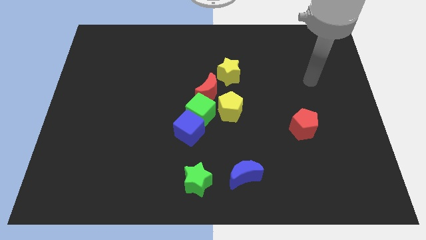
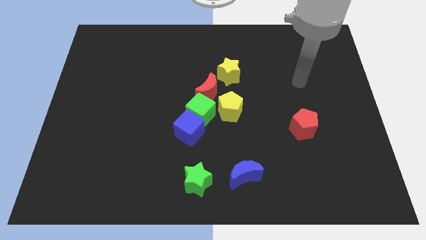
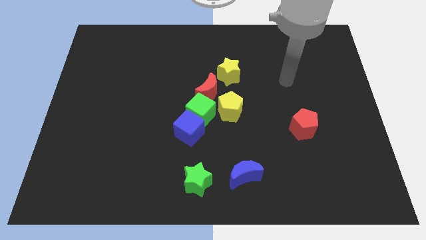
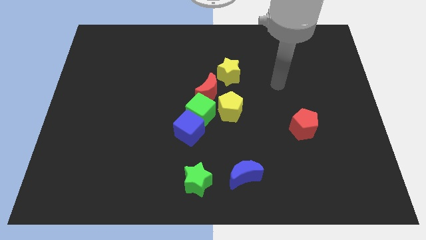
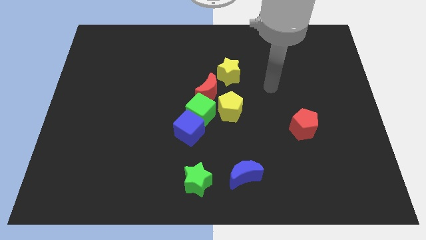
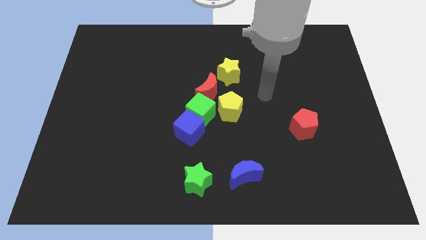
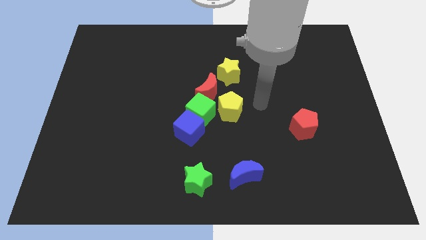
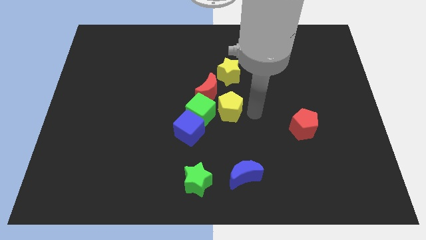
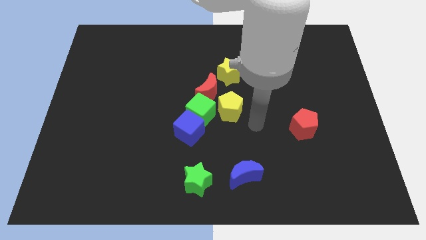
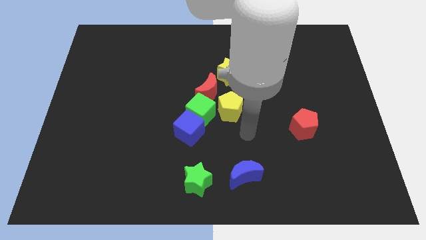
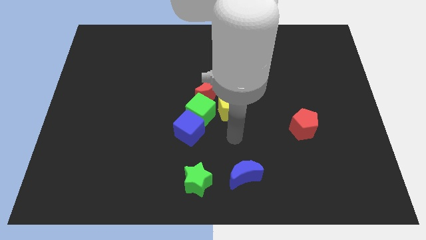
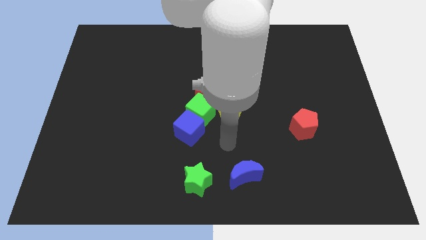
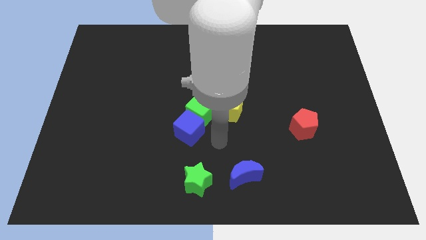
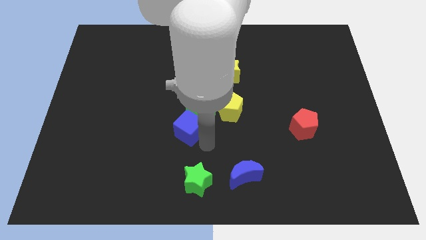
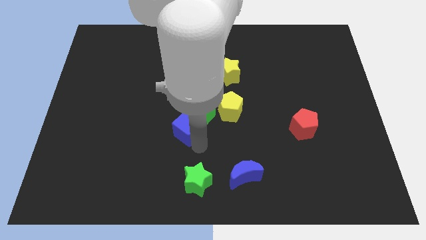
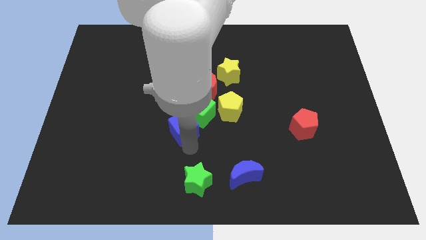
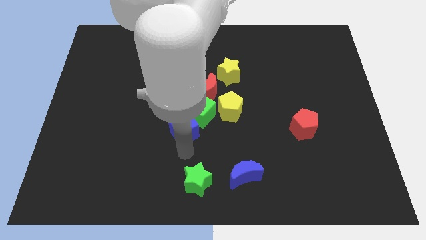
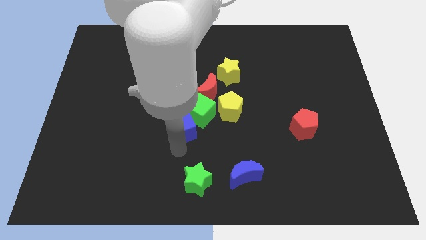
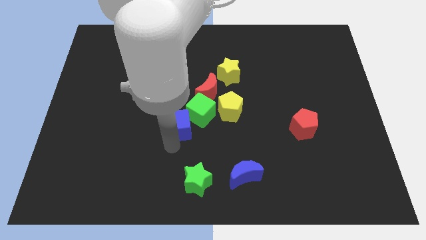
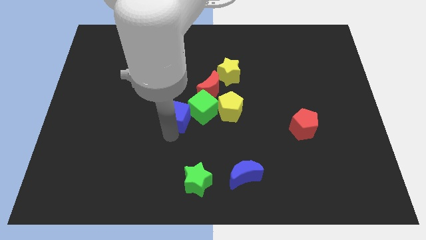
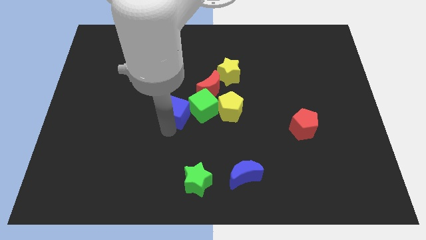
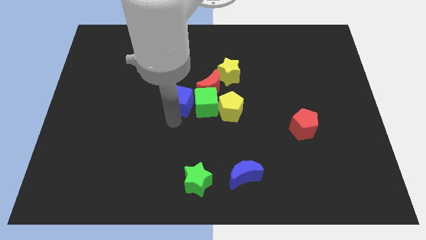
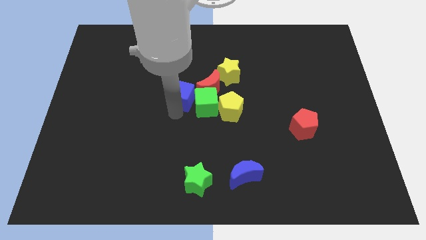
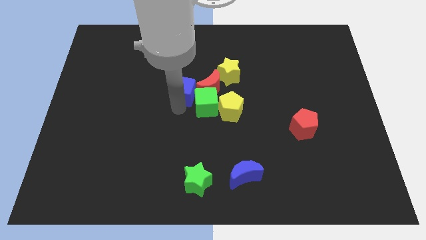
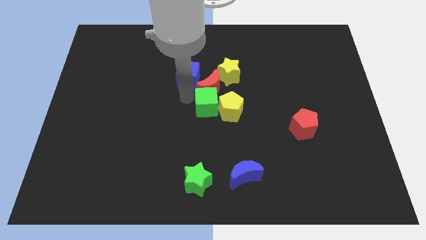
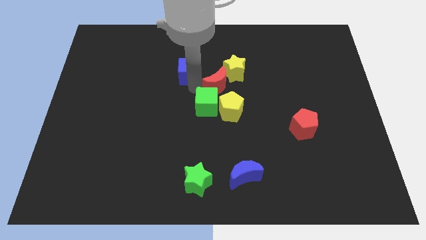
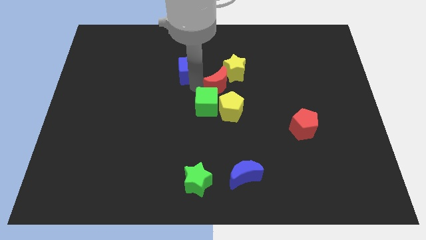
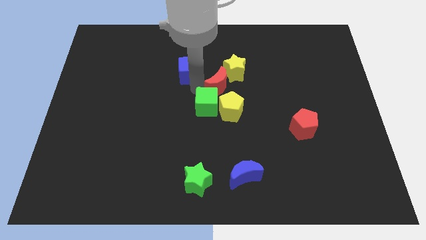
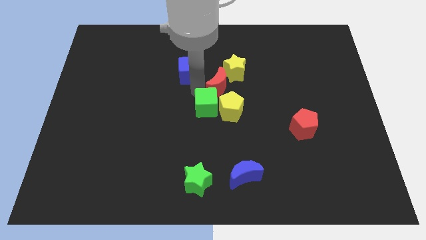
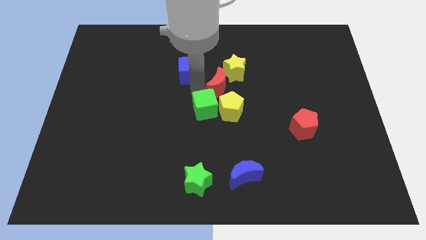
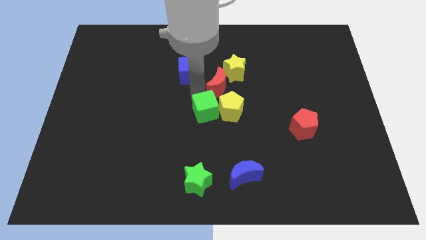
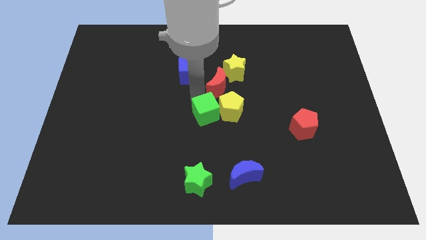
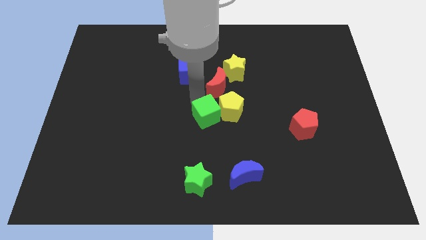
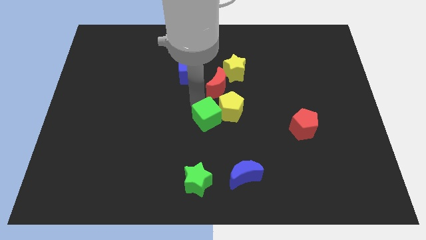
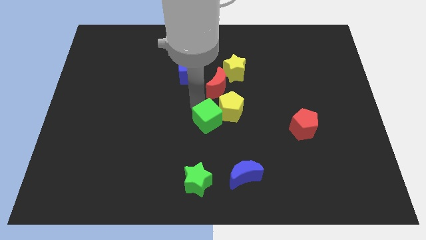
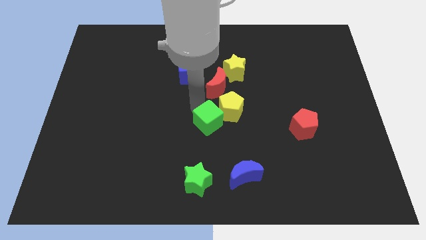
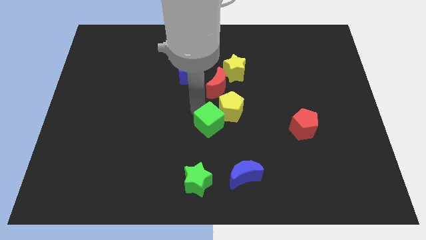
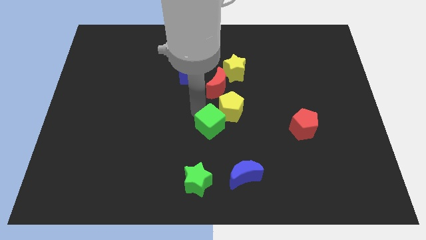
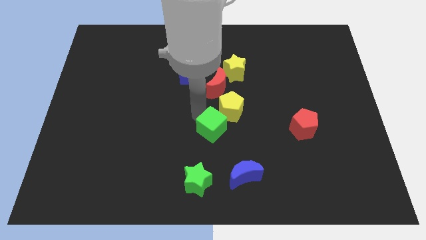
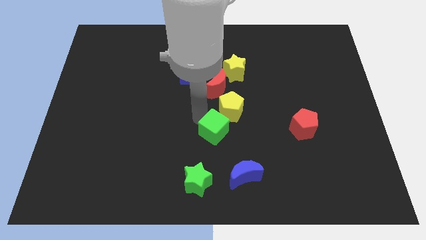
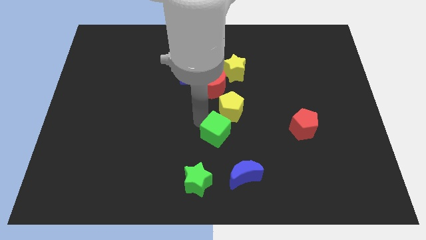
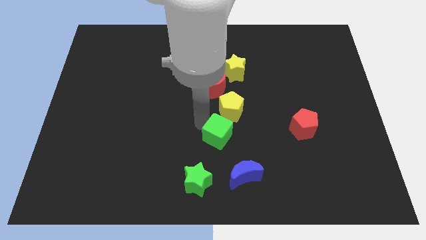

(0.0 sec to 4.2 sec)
slide the green cube down and to the right a little bit

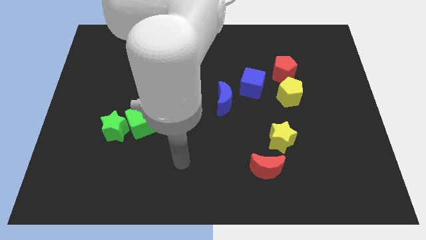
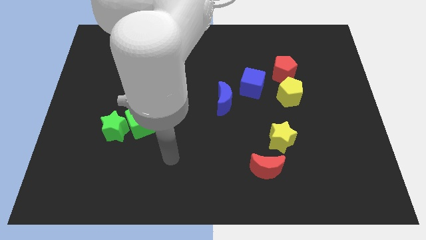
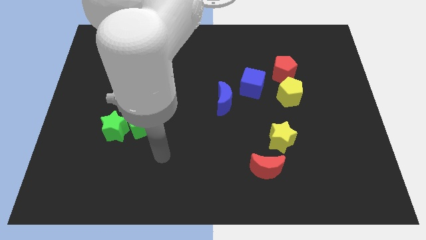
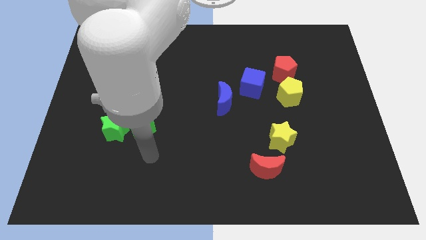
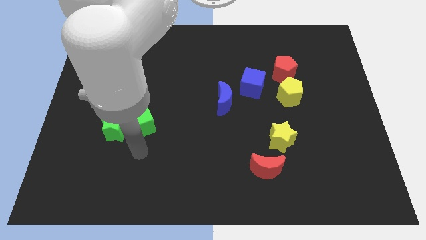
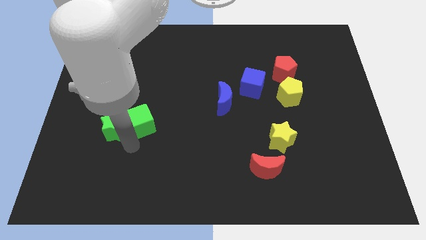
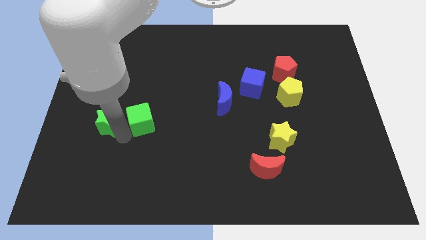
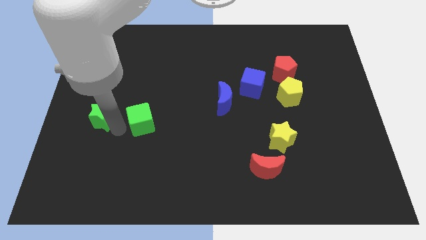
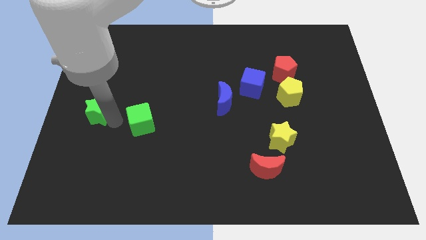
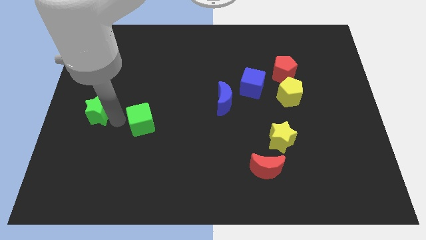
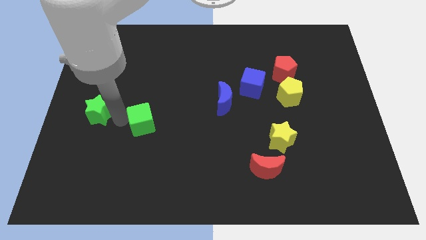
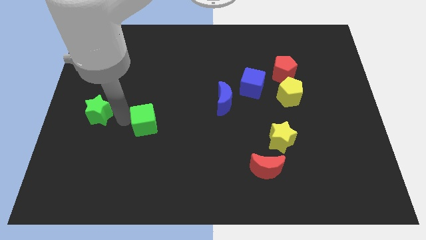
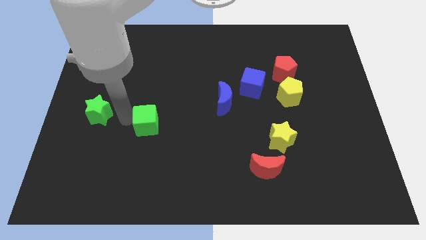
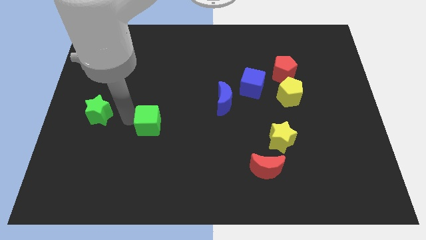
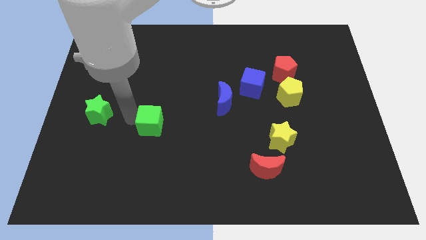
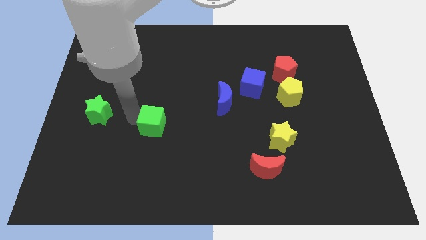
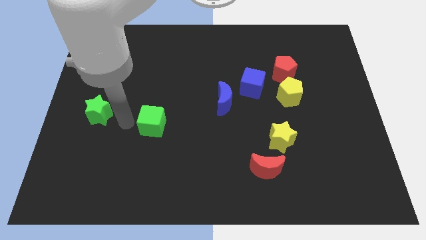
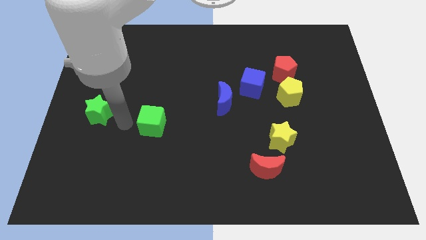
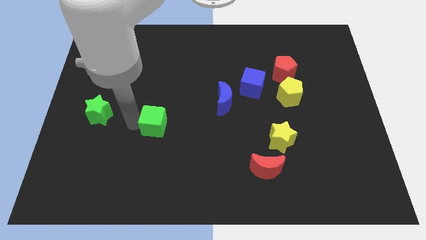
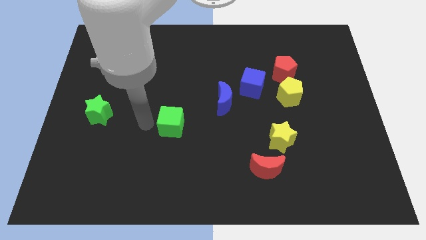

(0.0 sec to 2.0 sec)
slightly slide the green cube right

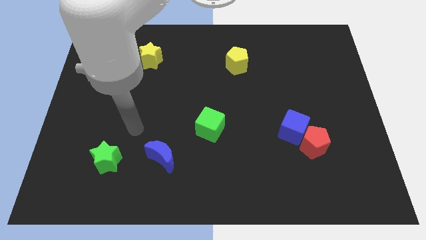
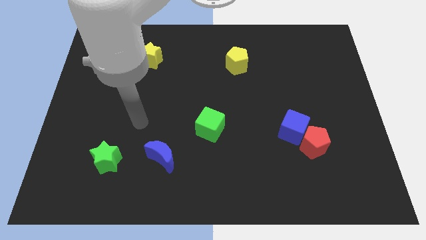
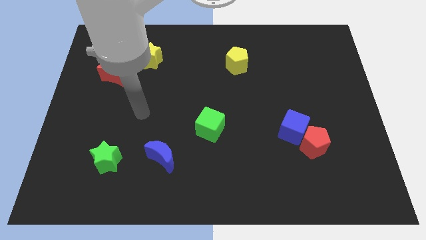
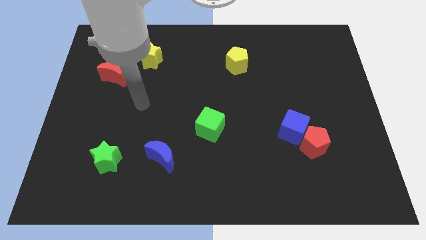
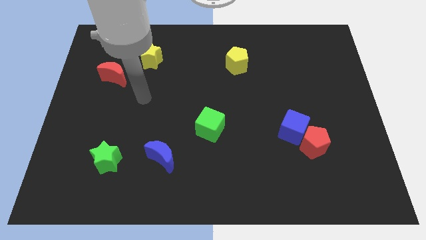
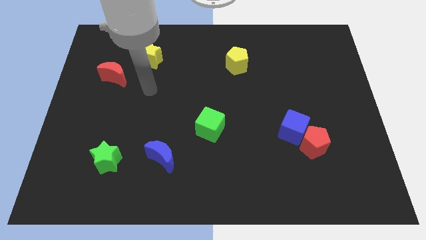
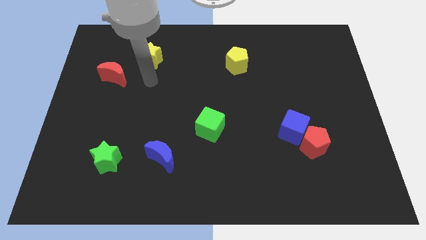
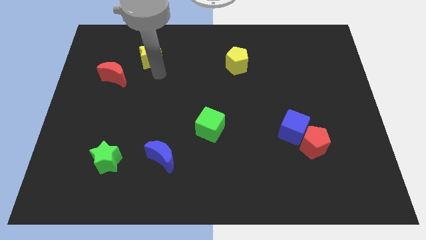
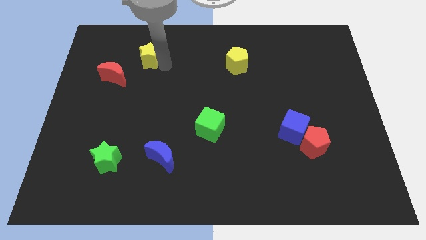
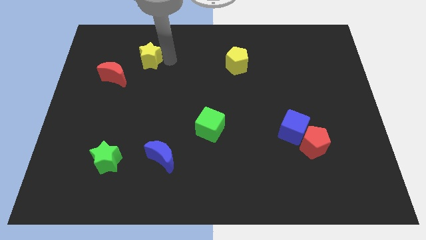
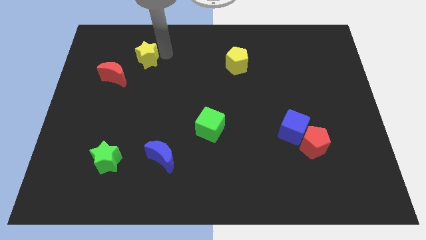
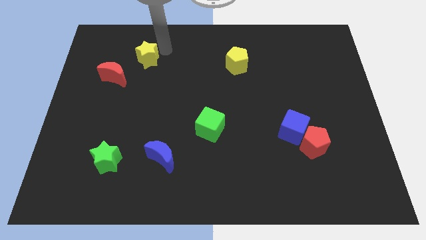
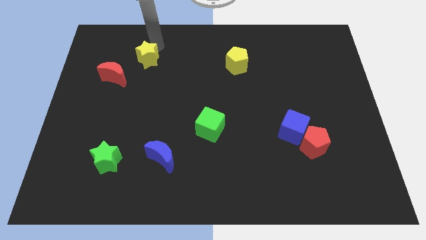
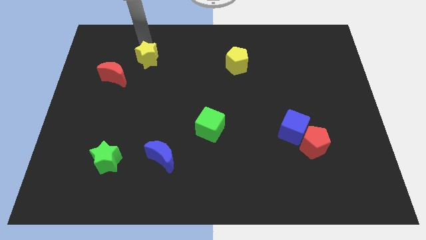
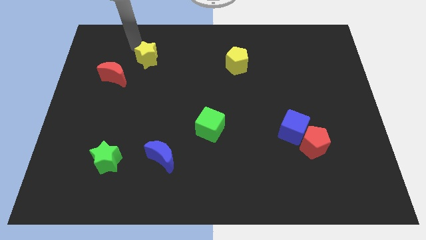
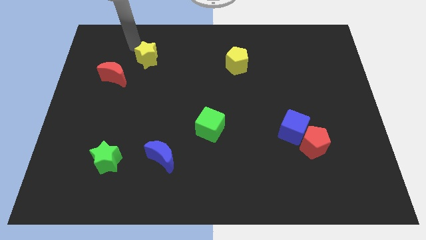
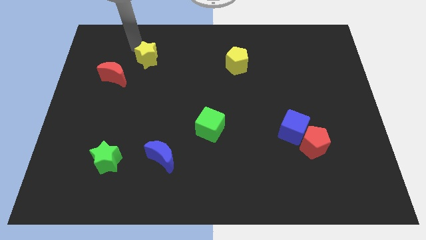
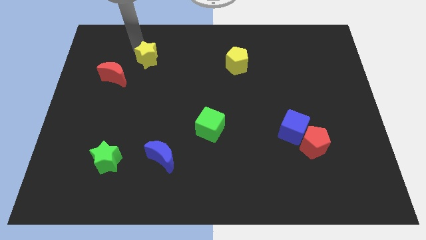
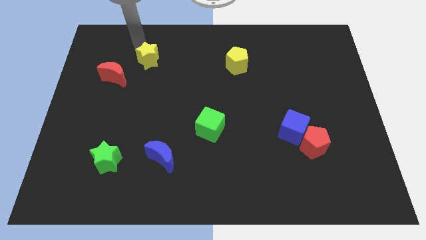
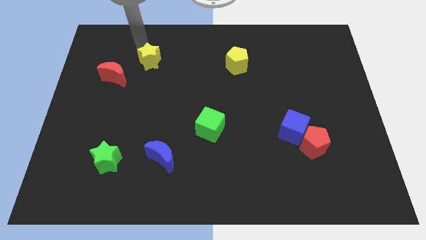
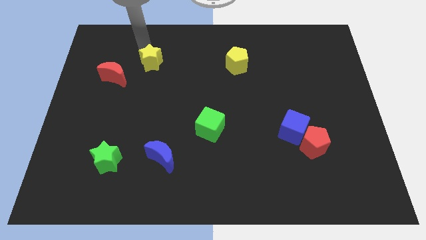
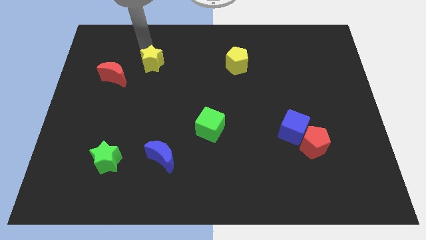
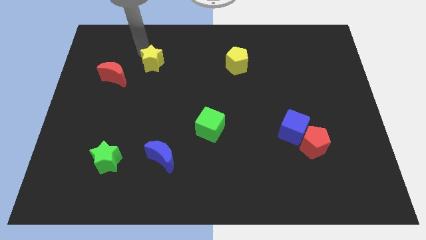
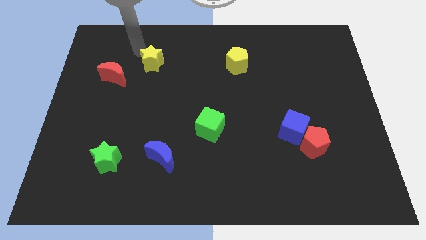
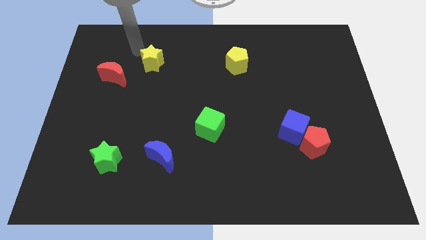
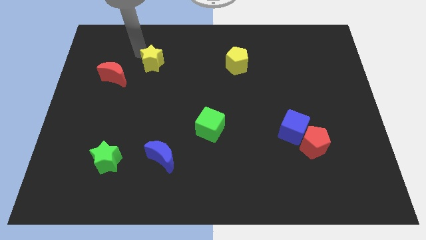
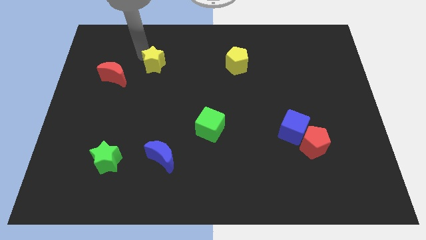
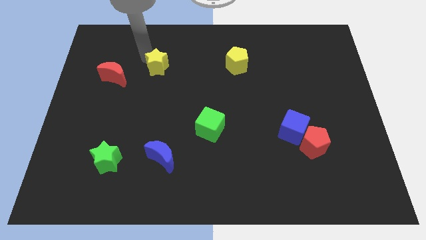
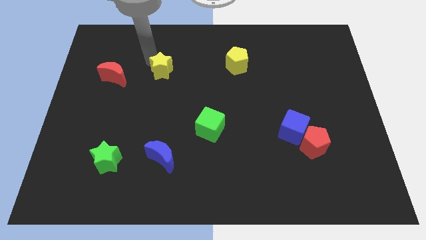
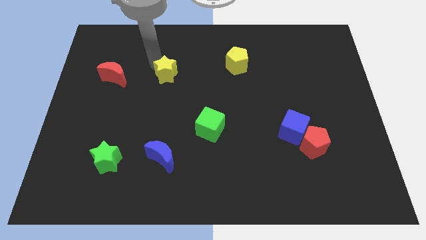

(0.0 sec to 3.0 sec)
slide the yellow star downwards and right diagonally a little
